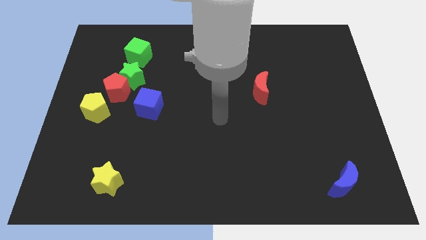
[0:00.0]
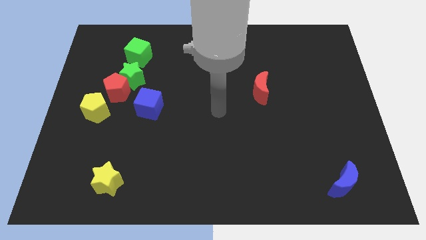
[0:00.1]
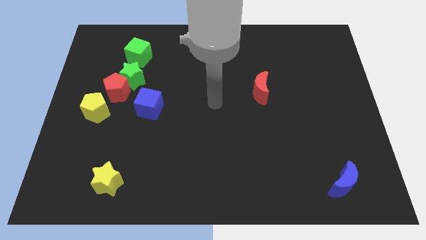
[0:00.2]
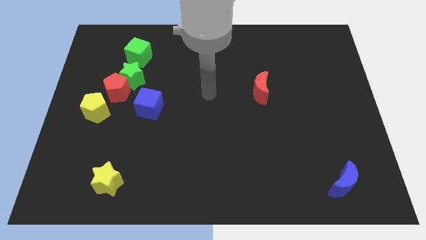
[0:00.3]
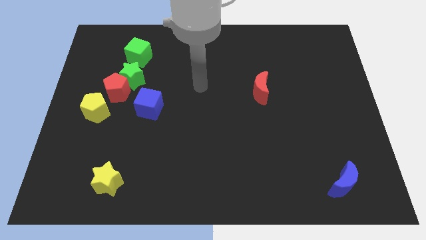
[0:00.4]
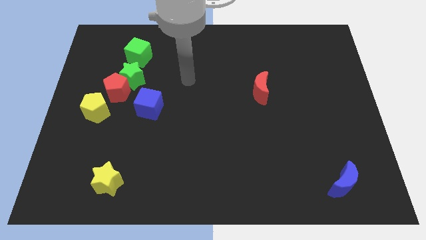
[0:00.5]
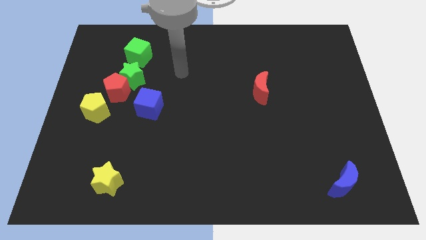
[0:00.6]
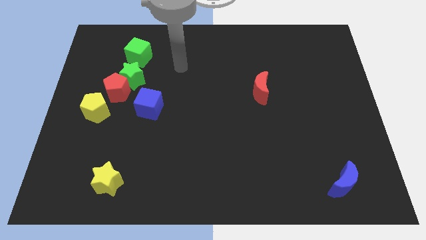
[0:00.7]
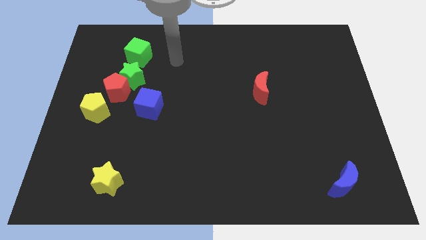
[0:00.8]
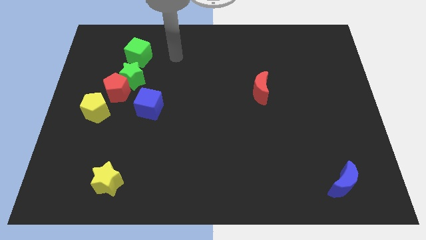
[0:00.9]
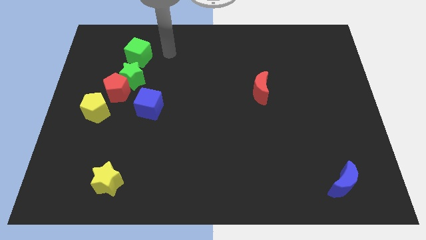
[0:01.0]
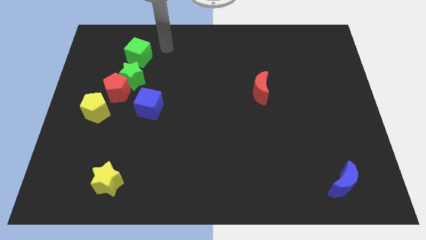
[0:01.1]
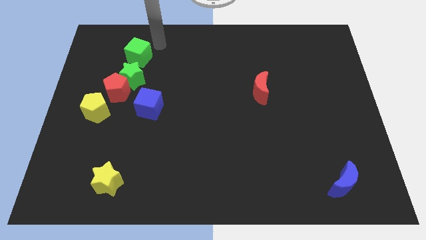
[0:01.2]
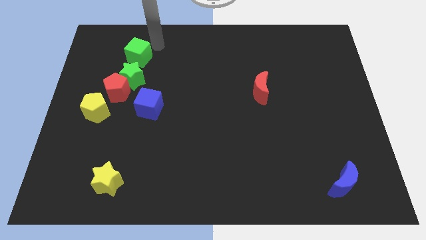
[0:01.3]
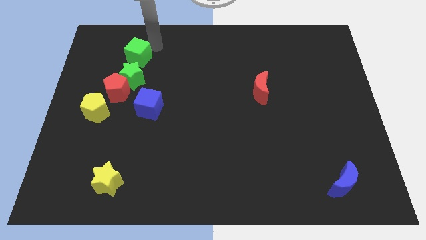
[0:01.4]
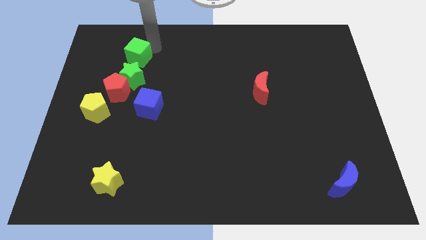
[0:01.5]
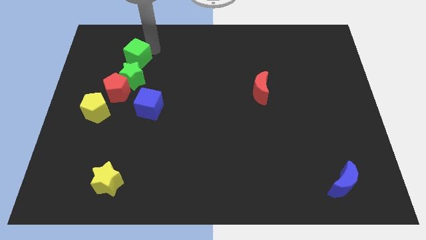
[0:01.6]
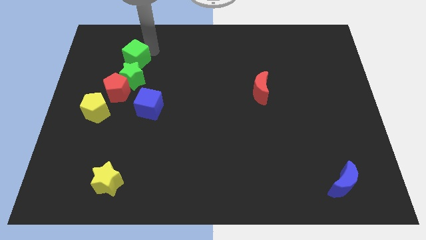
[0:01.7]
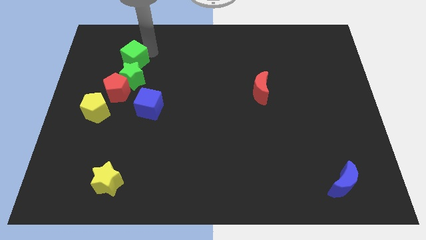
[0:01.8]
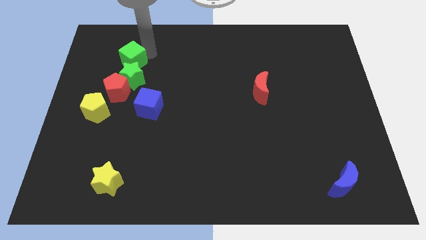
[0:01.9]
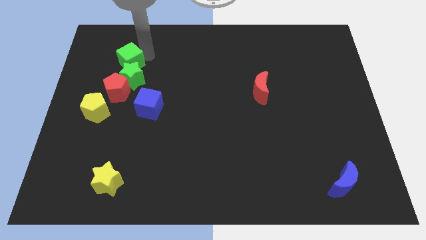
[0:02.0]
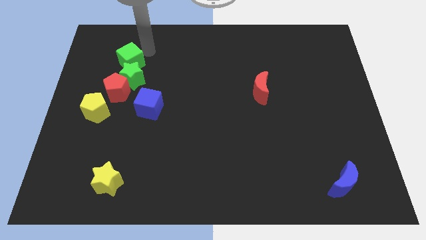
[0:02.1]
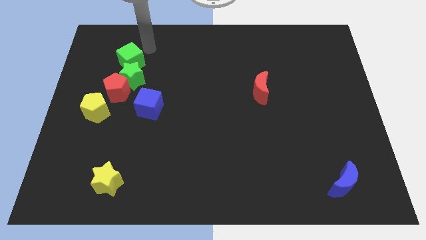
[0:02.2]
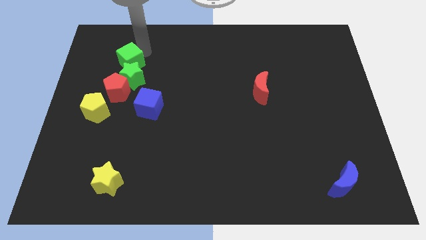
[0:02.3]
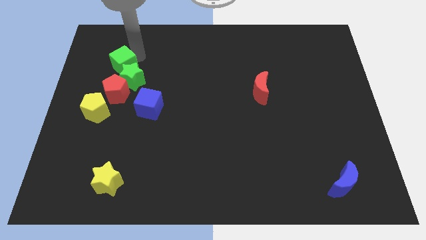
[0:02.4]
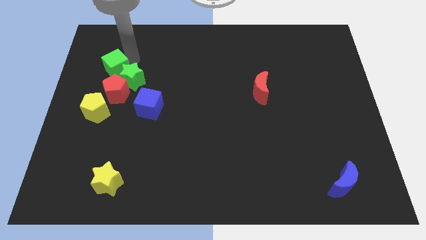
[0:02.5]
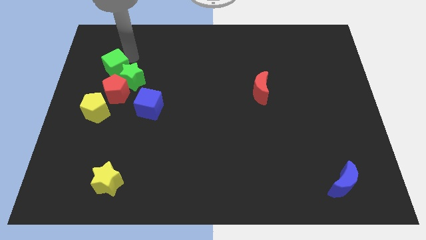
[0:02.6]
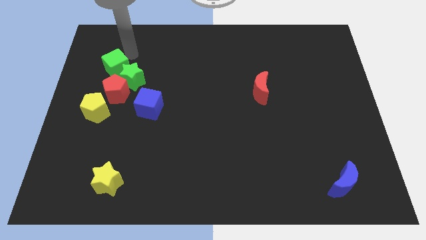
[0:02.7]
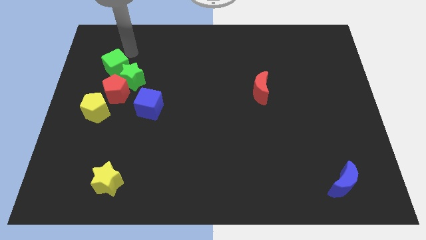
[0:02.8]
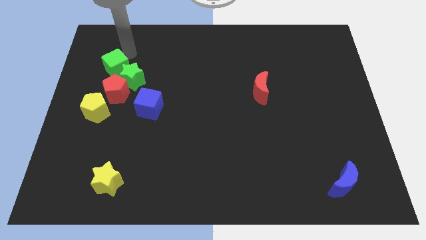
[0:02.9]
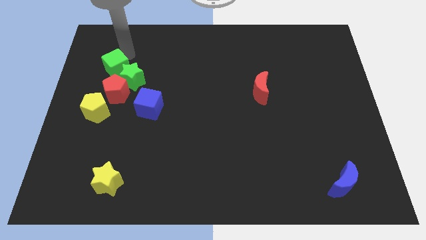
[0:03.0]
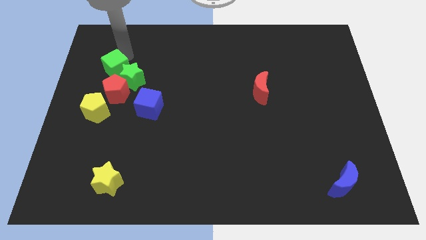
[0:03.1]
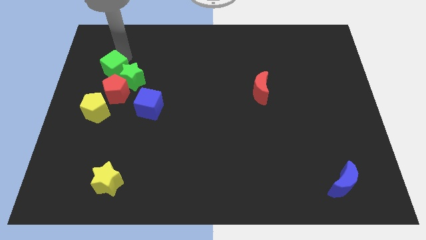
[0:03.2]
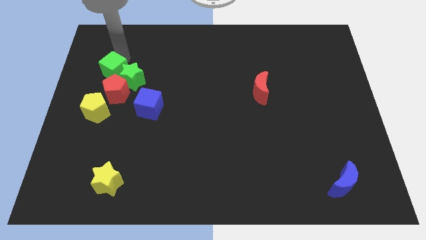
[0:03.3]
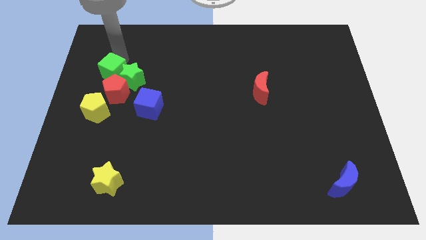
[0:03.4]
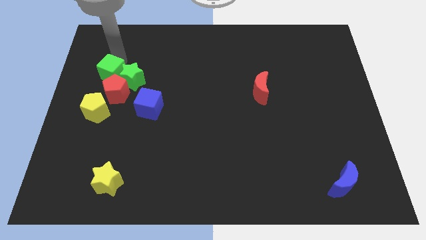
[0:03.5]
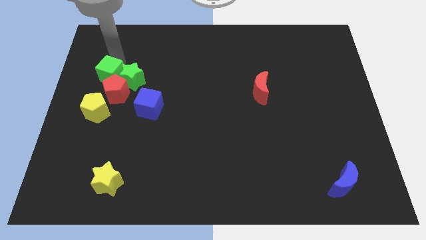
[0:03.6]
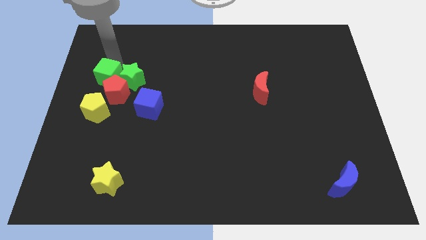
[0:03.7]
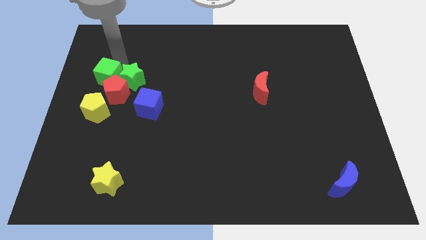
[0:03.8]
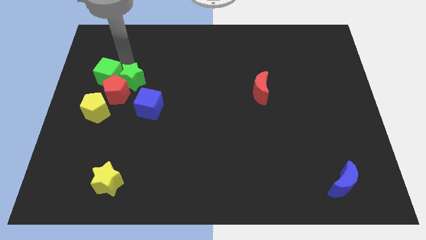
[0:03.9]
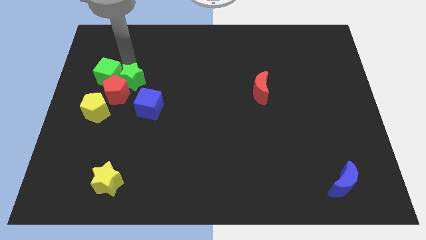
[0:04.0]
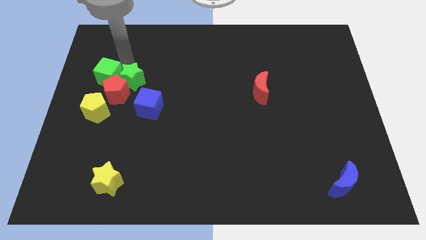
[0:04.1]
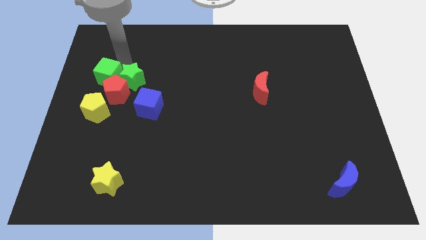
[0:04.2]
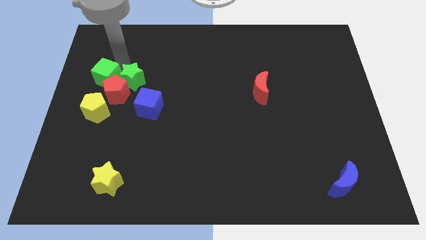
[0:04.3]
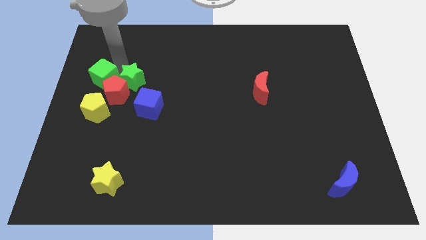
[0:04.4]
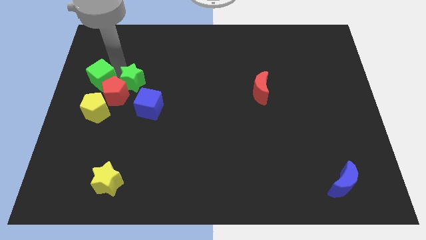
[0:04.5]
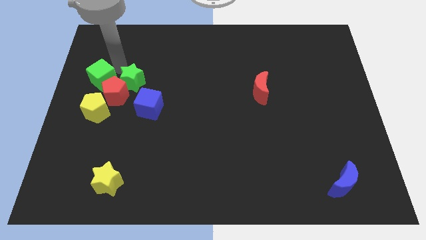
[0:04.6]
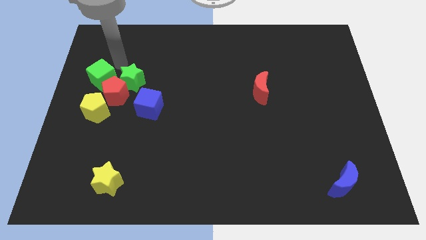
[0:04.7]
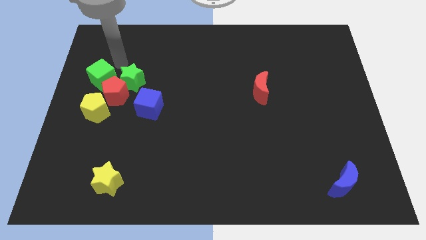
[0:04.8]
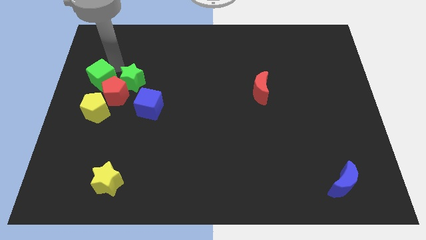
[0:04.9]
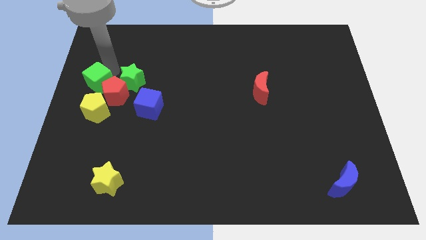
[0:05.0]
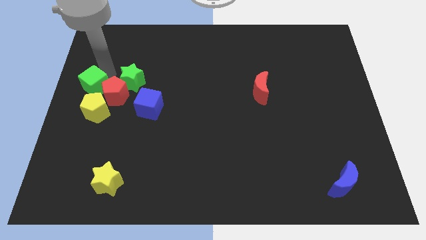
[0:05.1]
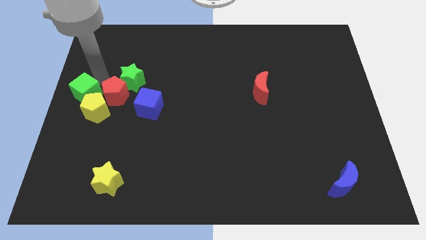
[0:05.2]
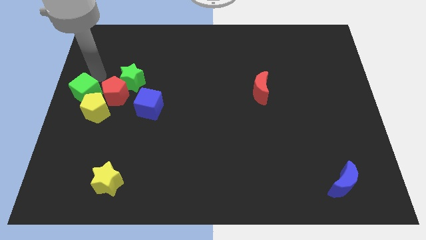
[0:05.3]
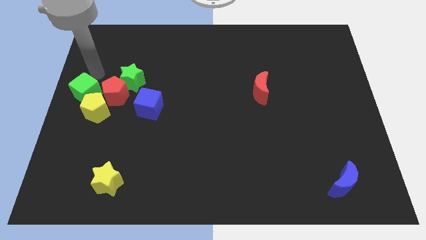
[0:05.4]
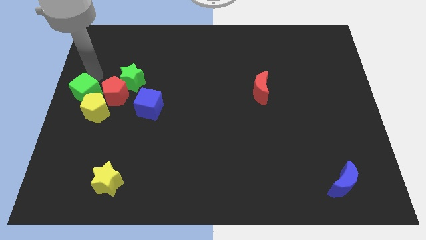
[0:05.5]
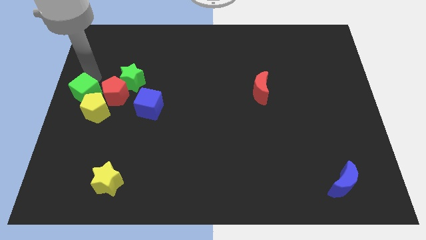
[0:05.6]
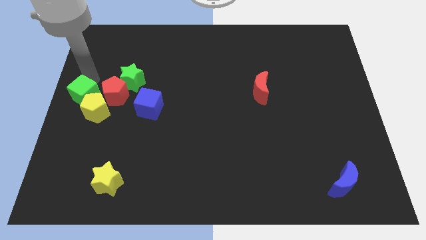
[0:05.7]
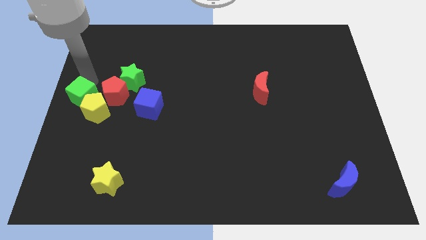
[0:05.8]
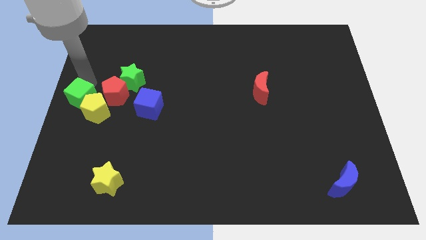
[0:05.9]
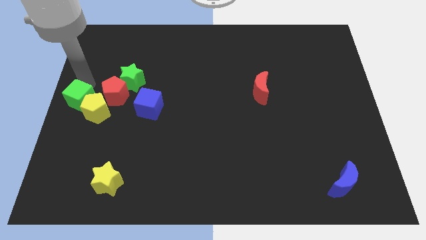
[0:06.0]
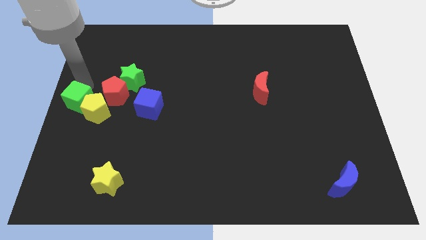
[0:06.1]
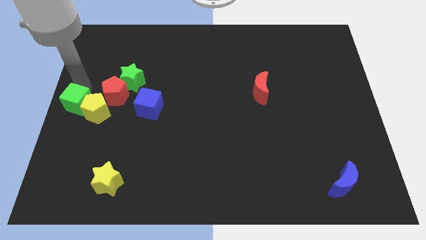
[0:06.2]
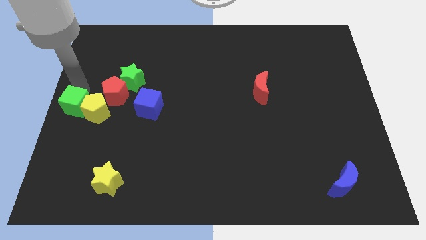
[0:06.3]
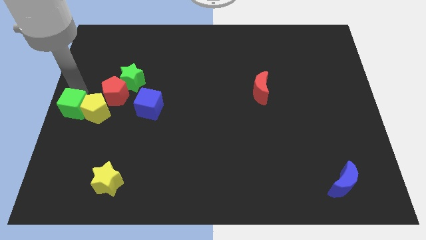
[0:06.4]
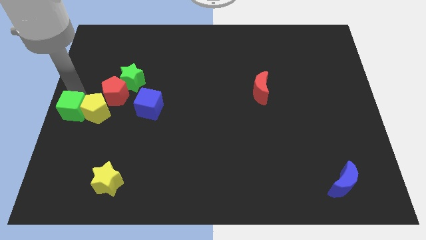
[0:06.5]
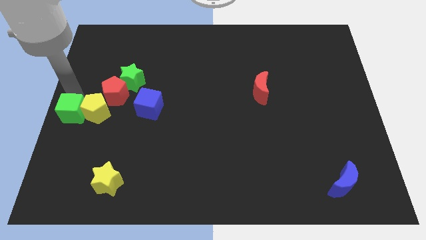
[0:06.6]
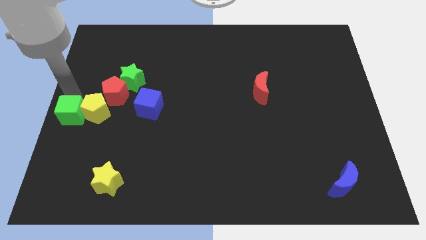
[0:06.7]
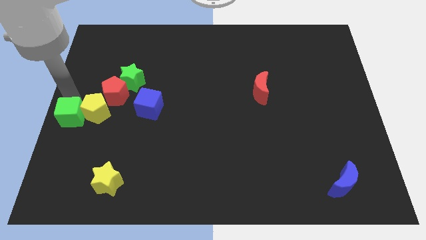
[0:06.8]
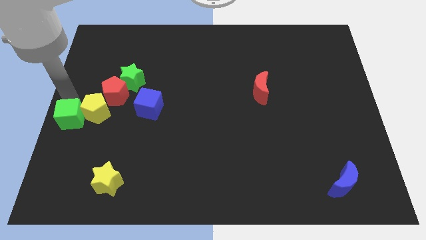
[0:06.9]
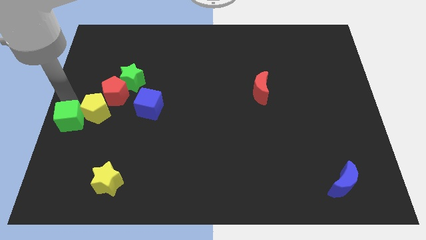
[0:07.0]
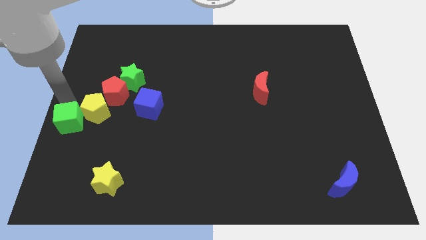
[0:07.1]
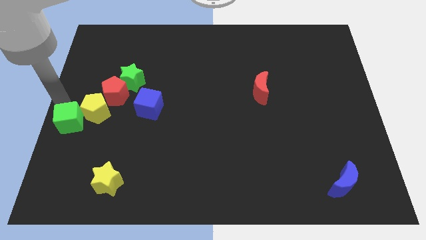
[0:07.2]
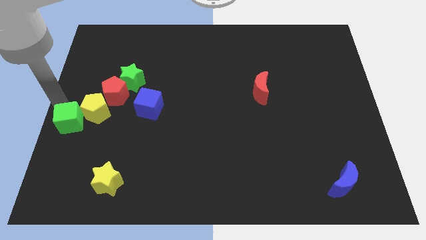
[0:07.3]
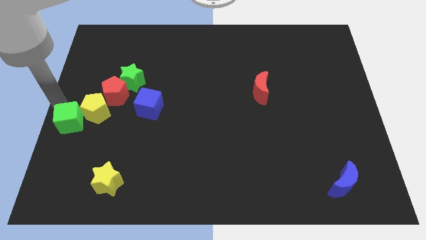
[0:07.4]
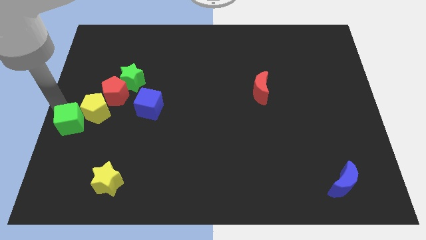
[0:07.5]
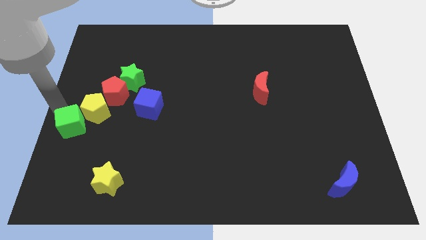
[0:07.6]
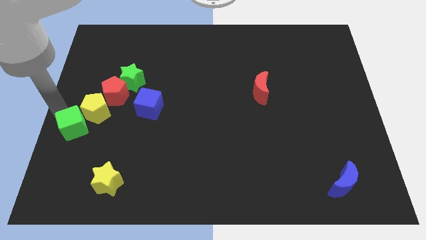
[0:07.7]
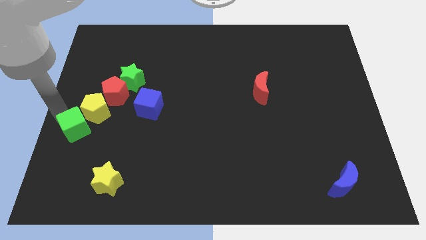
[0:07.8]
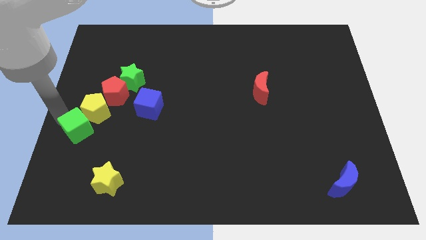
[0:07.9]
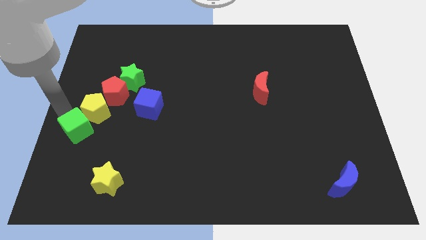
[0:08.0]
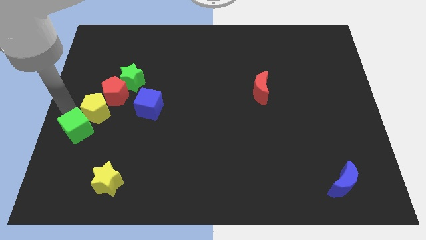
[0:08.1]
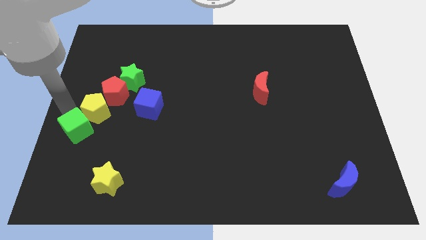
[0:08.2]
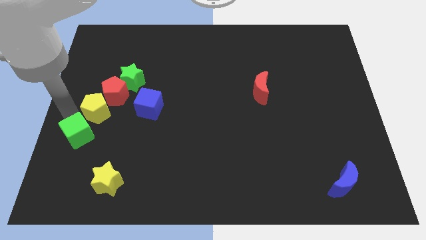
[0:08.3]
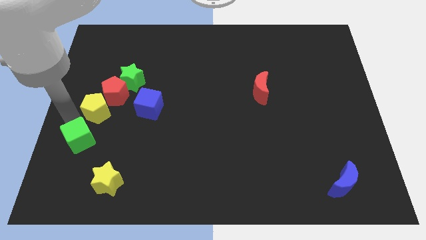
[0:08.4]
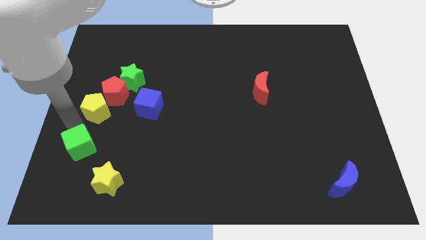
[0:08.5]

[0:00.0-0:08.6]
slide the green cube to the top left side of the yellow star
